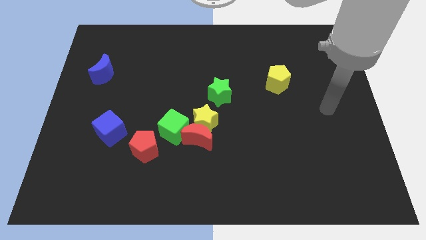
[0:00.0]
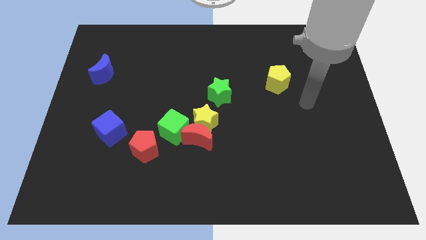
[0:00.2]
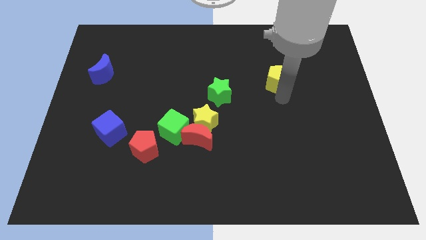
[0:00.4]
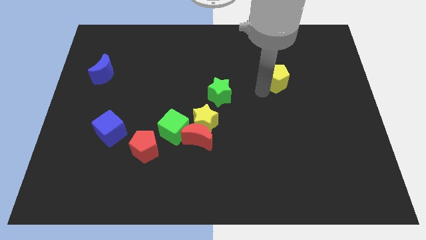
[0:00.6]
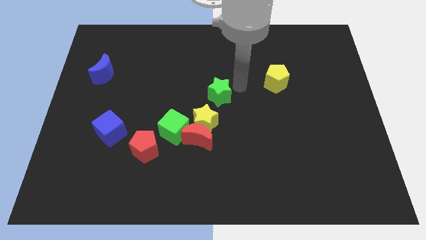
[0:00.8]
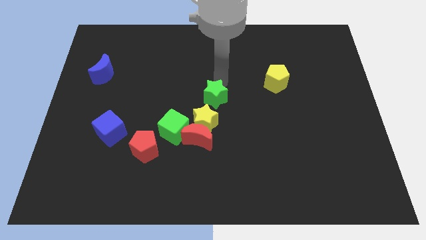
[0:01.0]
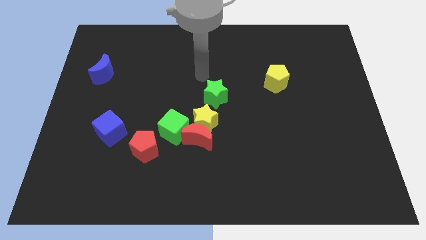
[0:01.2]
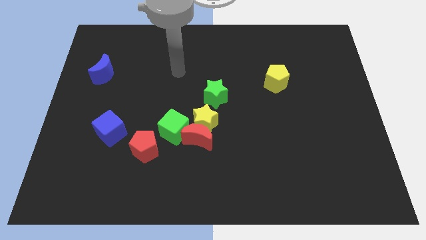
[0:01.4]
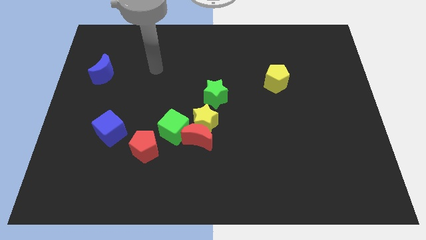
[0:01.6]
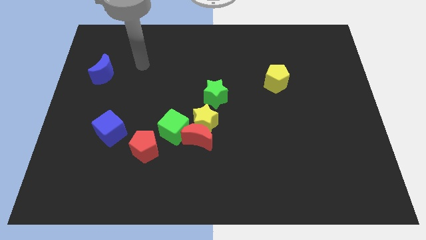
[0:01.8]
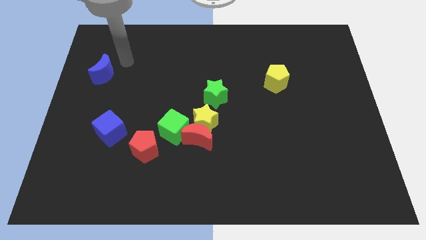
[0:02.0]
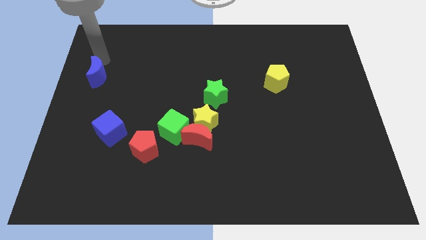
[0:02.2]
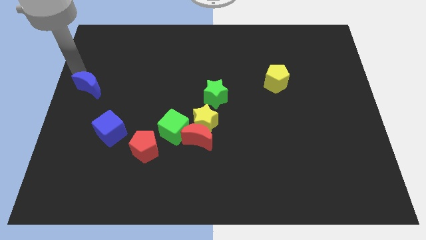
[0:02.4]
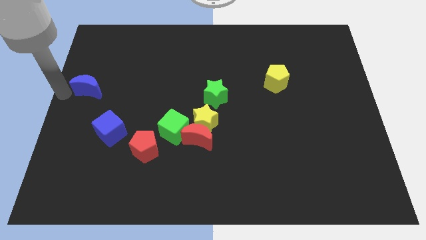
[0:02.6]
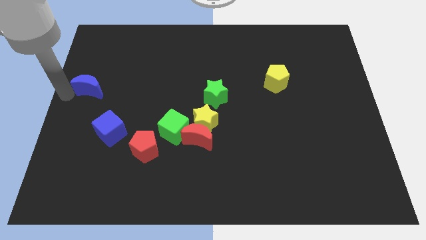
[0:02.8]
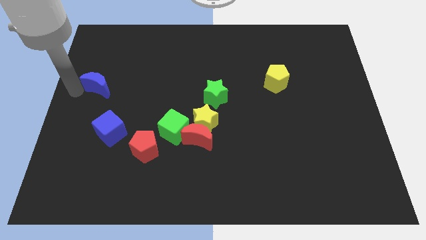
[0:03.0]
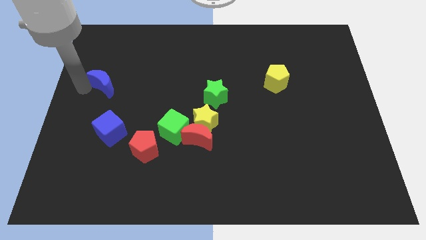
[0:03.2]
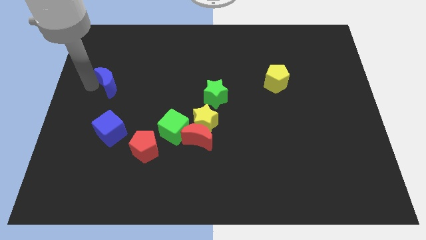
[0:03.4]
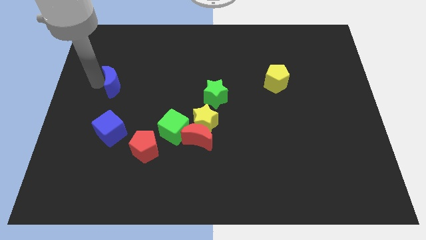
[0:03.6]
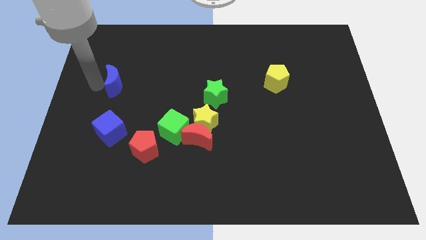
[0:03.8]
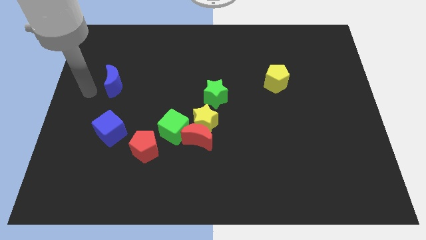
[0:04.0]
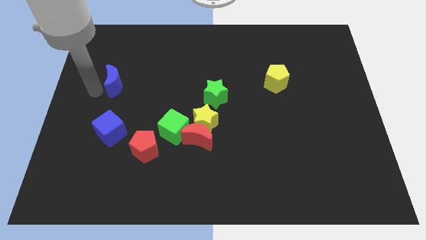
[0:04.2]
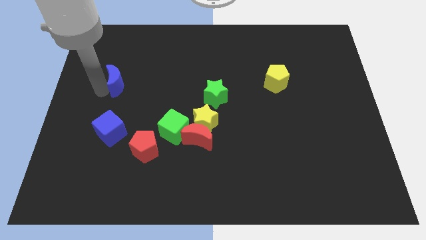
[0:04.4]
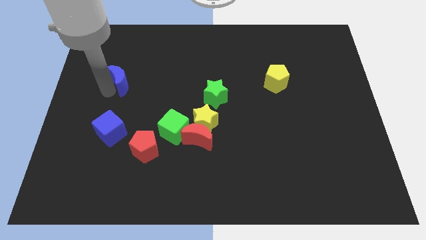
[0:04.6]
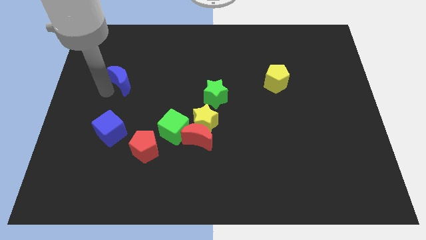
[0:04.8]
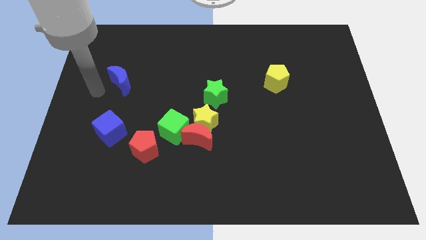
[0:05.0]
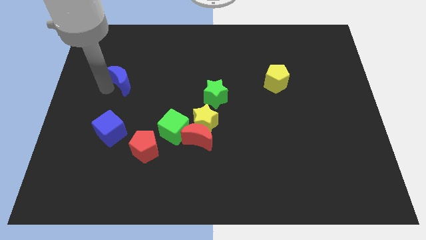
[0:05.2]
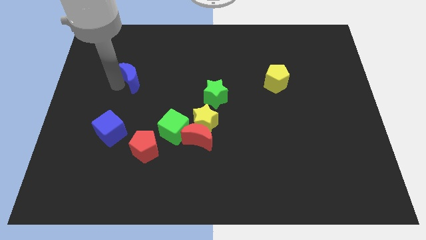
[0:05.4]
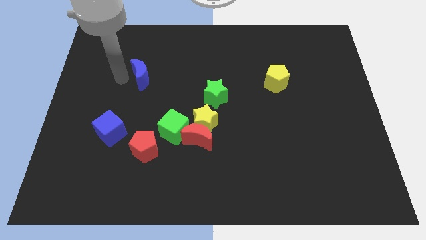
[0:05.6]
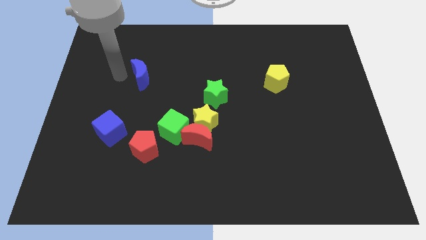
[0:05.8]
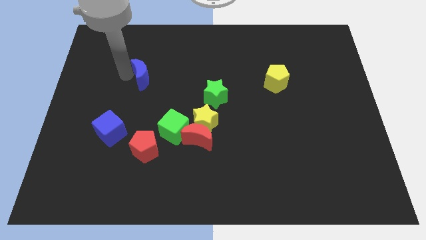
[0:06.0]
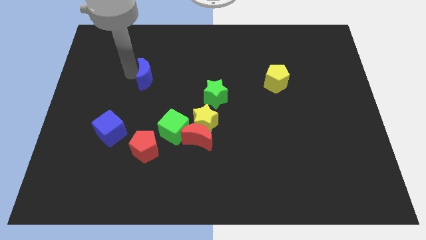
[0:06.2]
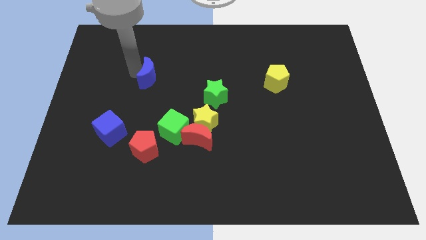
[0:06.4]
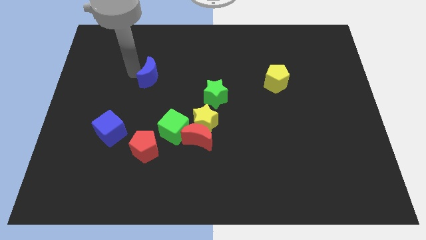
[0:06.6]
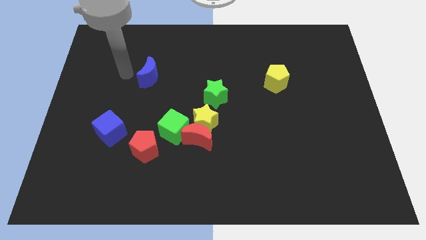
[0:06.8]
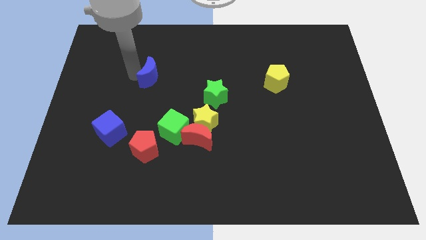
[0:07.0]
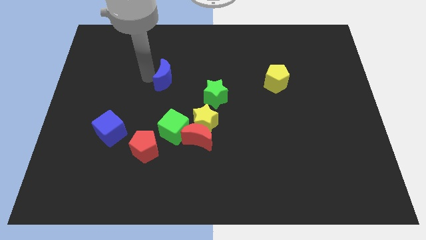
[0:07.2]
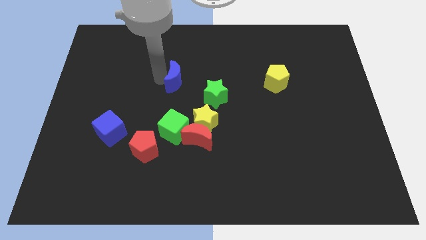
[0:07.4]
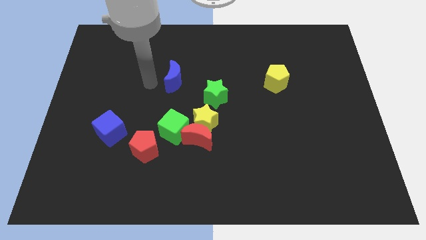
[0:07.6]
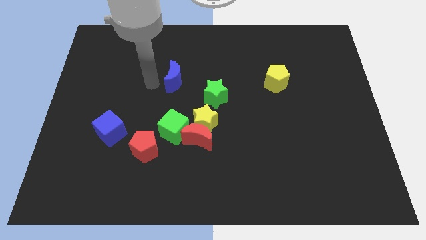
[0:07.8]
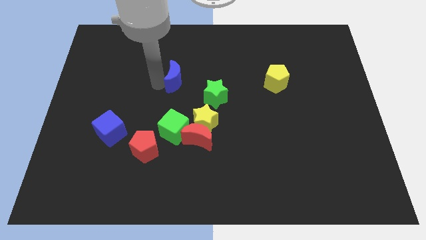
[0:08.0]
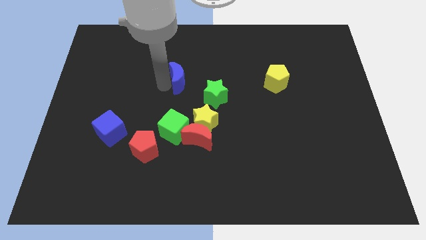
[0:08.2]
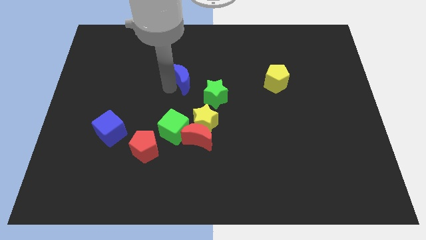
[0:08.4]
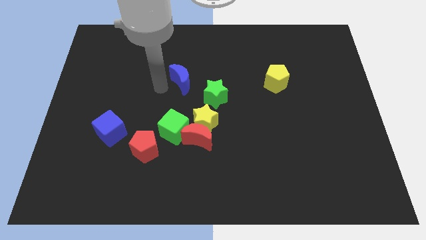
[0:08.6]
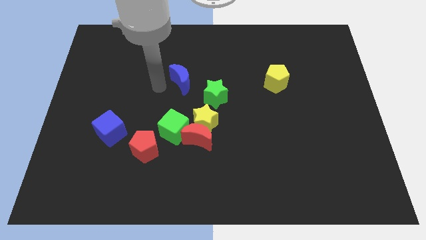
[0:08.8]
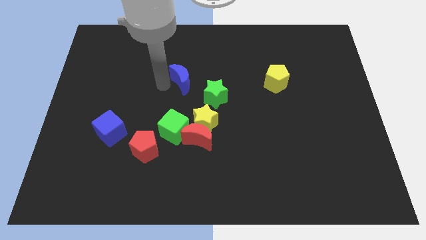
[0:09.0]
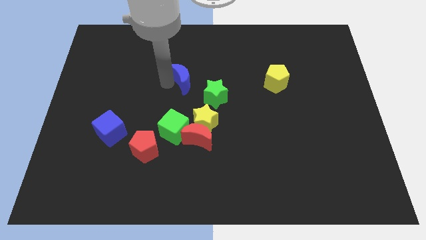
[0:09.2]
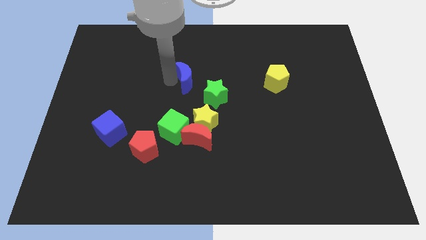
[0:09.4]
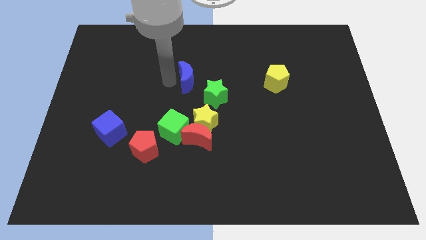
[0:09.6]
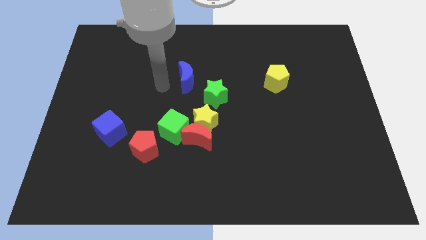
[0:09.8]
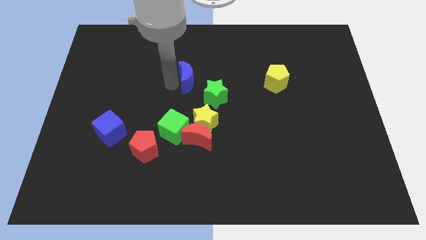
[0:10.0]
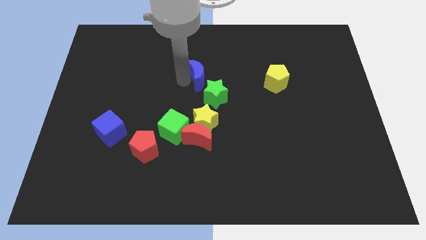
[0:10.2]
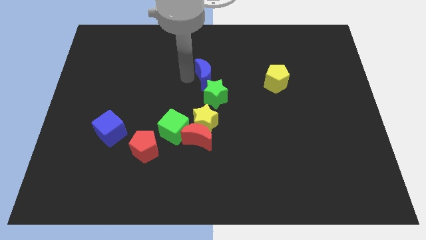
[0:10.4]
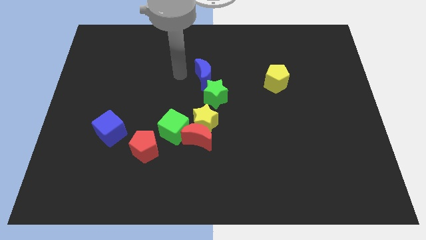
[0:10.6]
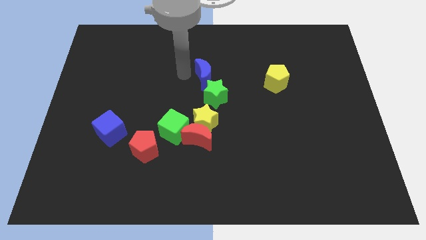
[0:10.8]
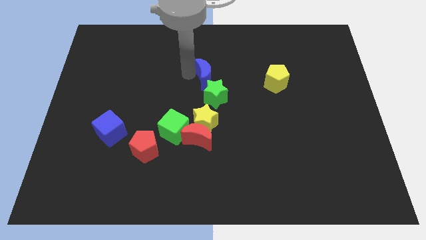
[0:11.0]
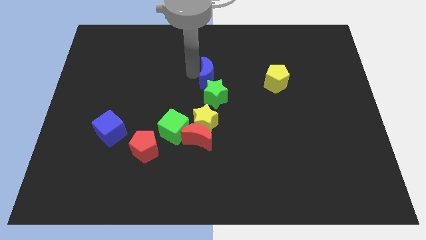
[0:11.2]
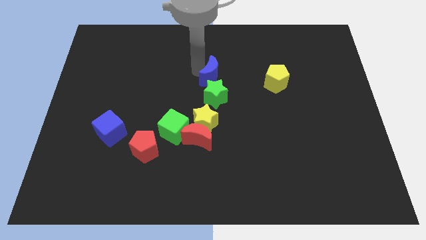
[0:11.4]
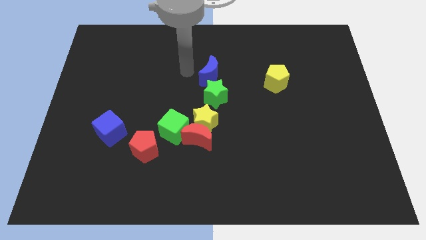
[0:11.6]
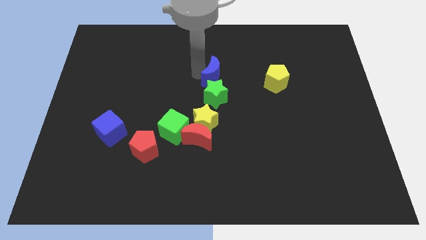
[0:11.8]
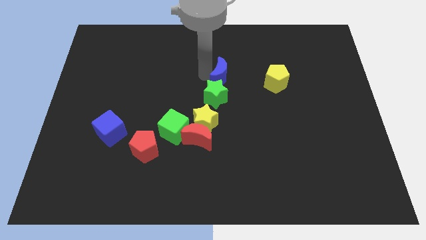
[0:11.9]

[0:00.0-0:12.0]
move the blue moon to the top right of the green star

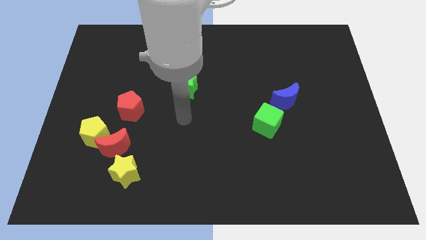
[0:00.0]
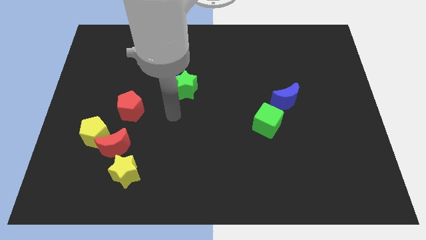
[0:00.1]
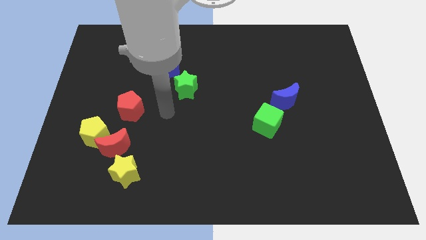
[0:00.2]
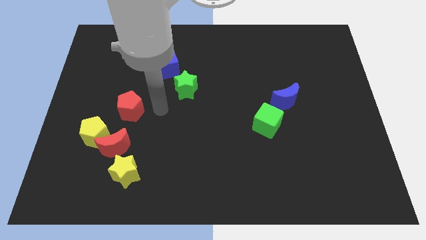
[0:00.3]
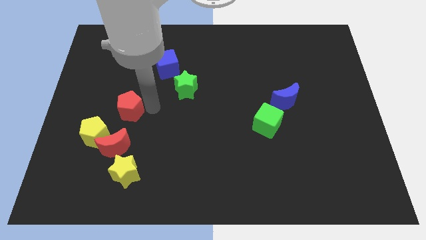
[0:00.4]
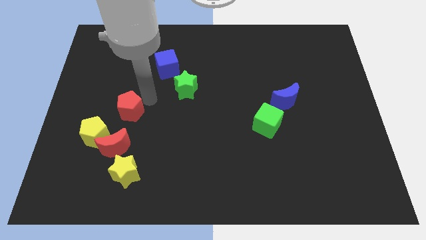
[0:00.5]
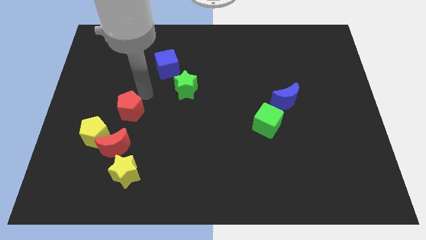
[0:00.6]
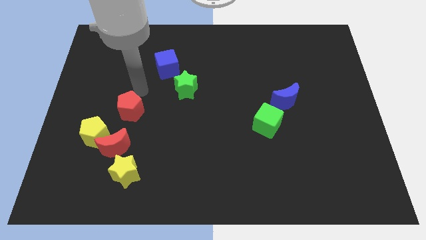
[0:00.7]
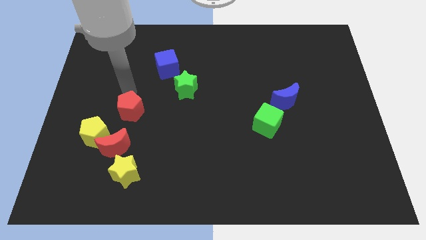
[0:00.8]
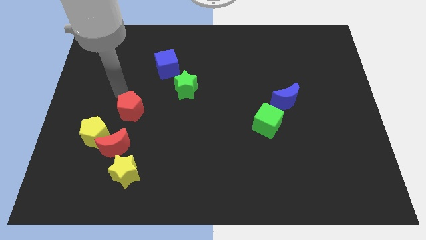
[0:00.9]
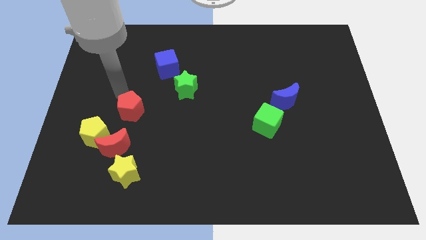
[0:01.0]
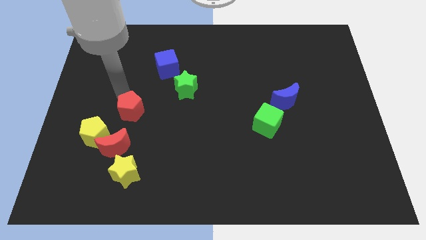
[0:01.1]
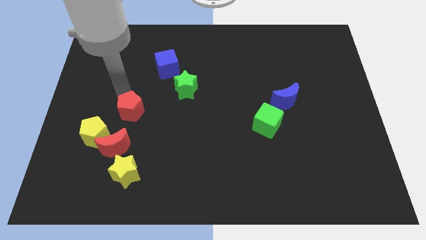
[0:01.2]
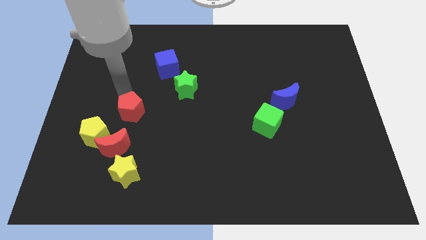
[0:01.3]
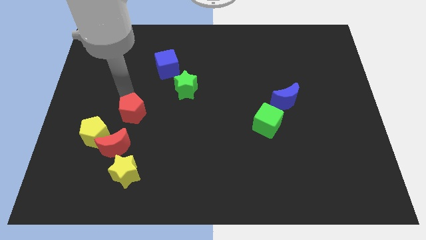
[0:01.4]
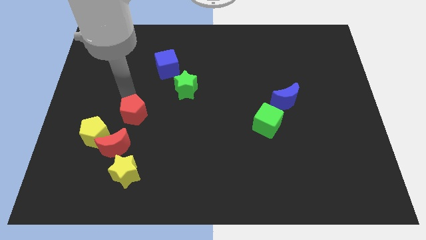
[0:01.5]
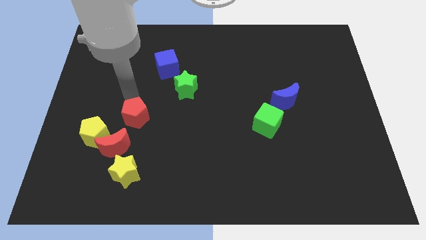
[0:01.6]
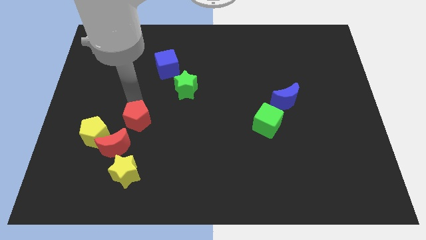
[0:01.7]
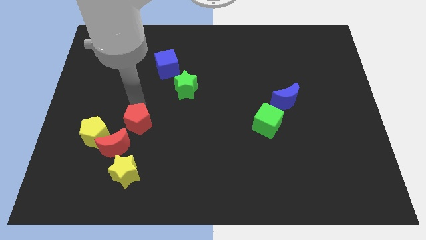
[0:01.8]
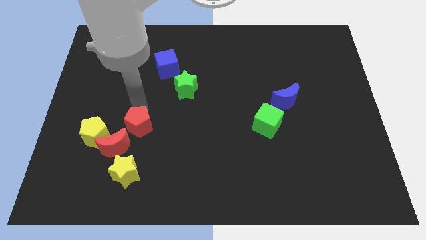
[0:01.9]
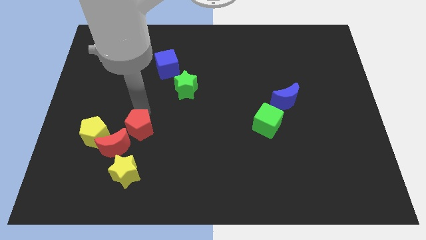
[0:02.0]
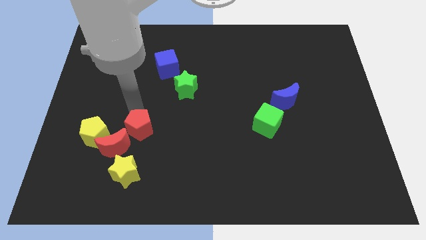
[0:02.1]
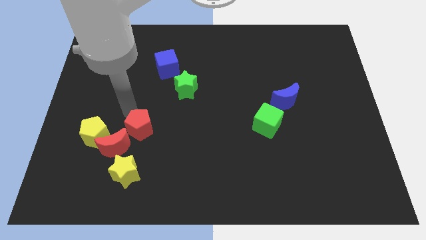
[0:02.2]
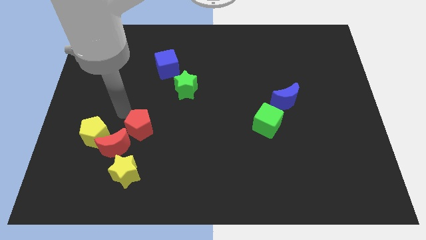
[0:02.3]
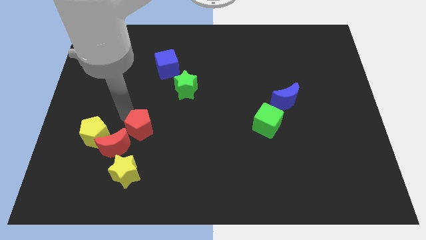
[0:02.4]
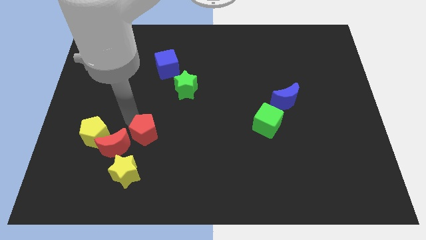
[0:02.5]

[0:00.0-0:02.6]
push the red pentagon to the right side of the red moon
